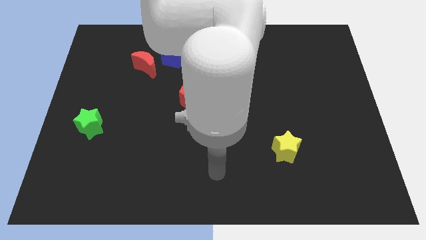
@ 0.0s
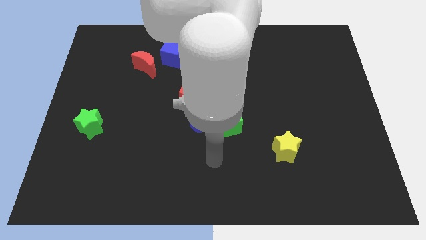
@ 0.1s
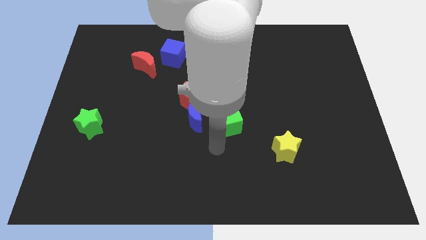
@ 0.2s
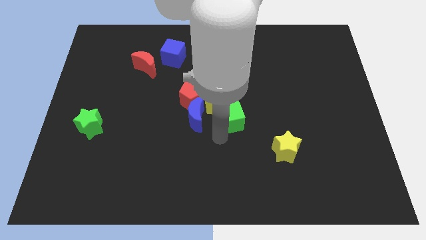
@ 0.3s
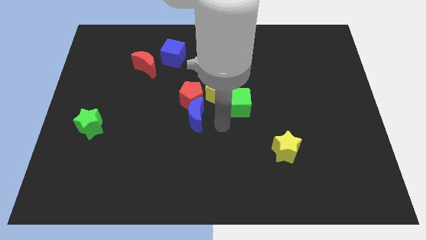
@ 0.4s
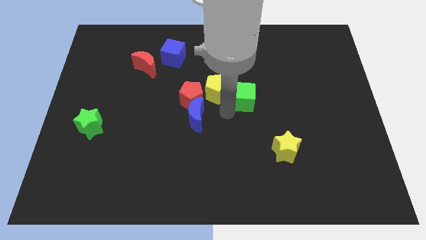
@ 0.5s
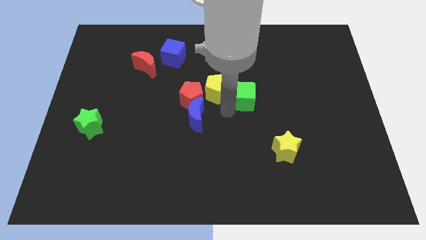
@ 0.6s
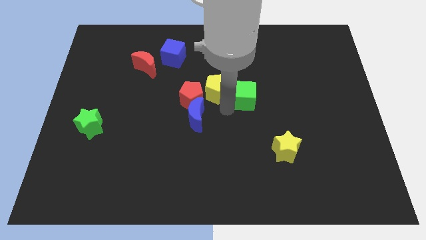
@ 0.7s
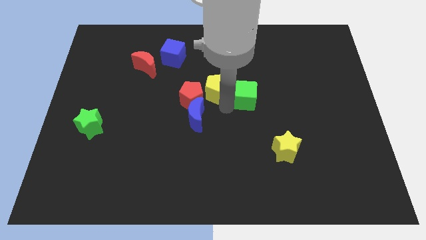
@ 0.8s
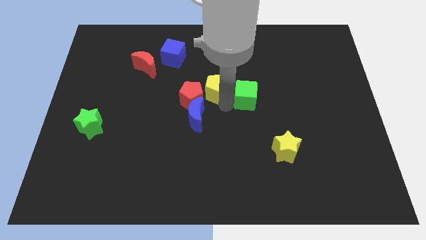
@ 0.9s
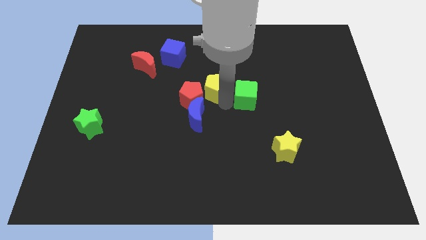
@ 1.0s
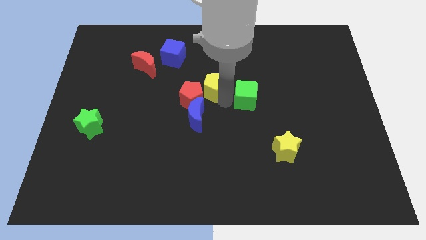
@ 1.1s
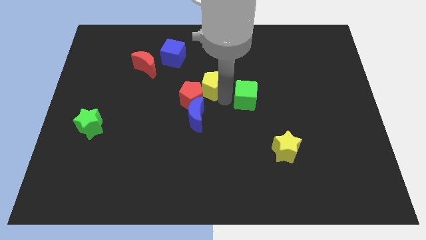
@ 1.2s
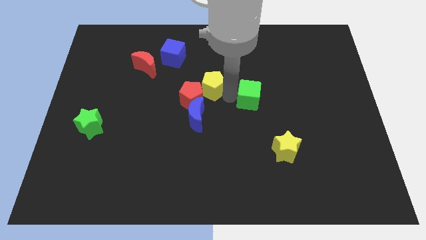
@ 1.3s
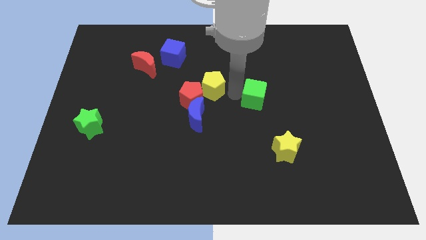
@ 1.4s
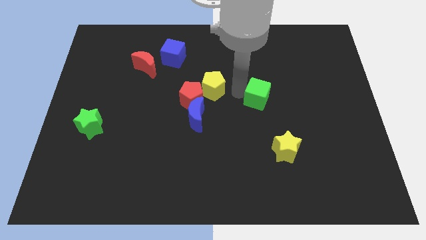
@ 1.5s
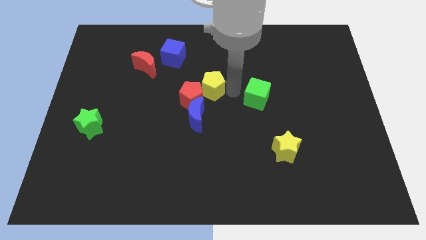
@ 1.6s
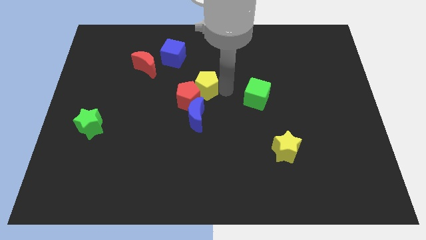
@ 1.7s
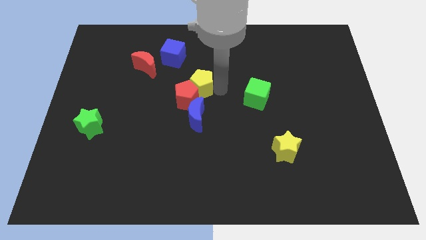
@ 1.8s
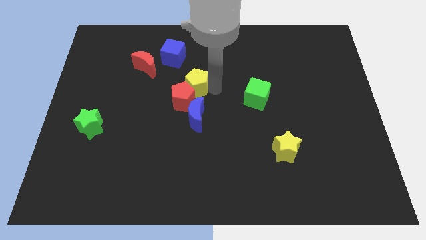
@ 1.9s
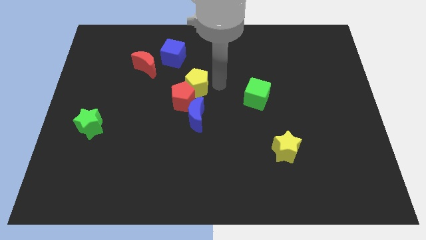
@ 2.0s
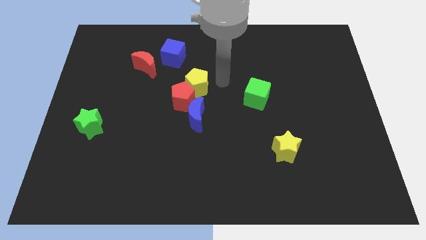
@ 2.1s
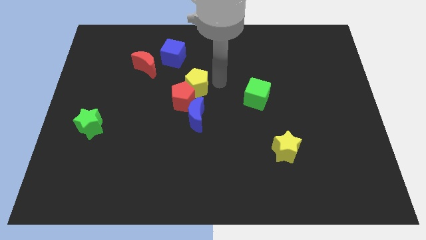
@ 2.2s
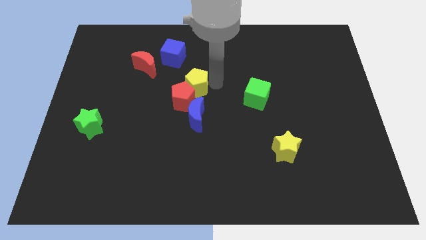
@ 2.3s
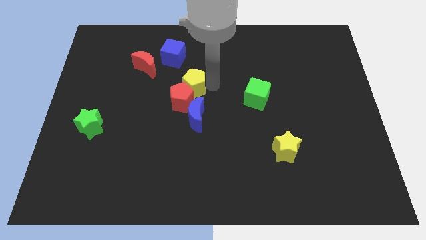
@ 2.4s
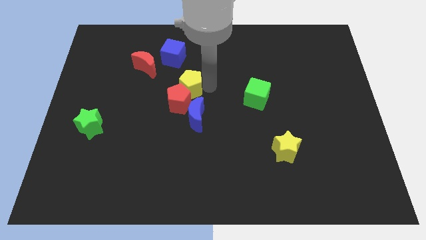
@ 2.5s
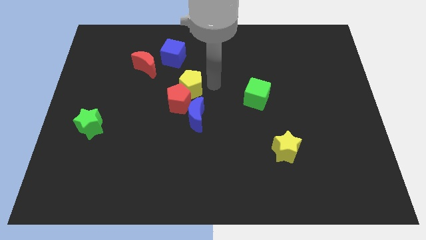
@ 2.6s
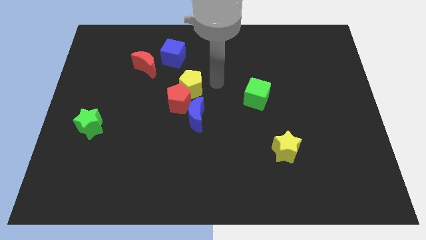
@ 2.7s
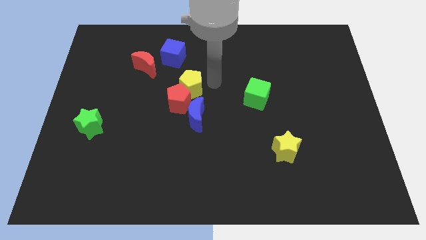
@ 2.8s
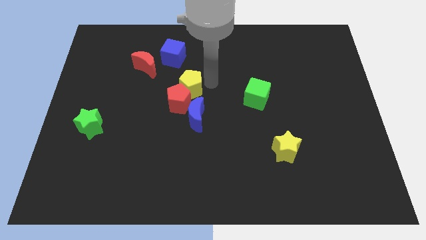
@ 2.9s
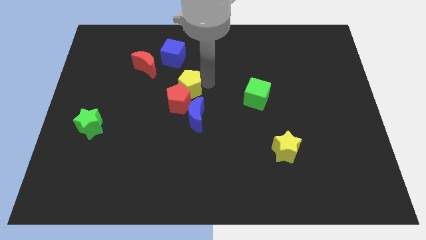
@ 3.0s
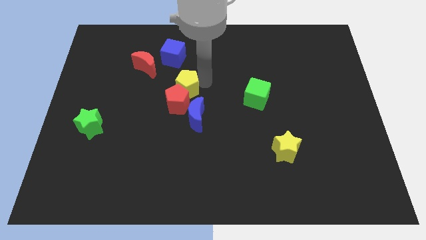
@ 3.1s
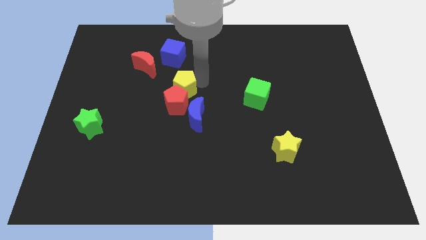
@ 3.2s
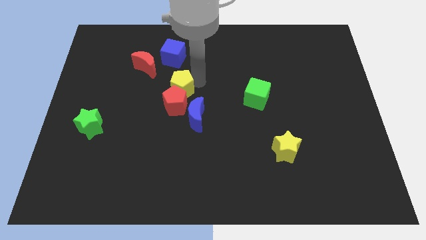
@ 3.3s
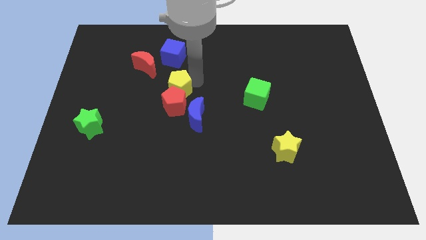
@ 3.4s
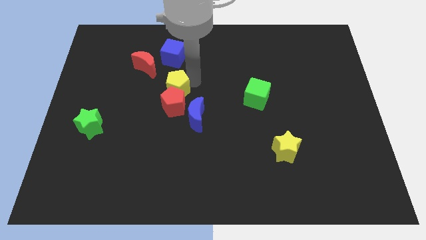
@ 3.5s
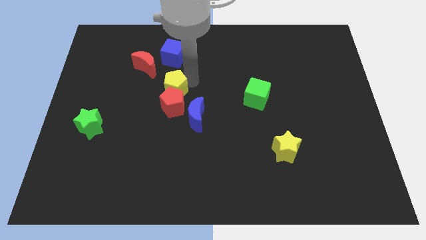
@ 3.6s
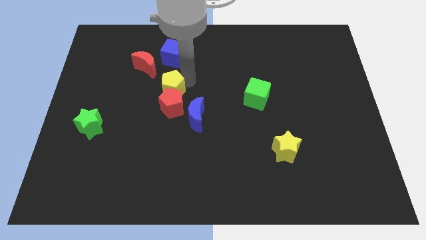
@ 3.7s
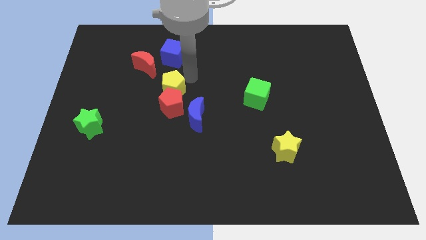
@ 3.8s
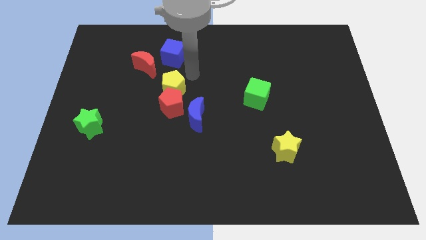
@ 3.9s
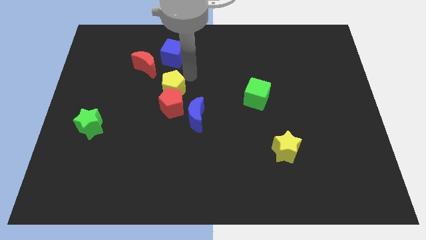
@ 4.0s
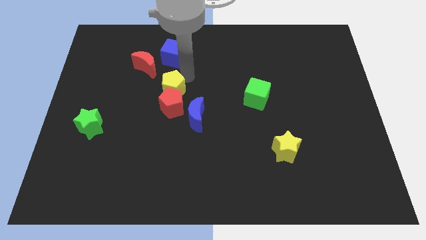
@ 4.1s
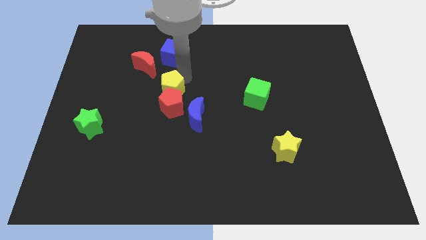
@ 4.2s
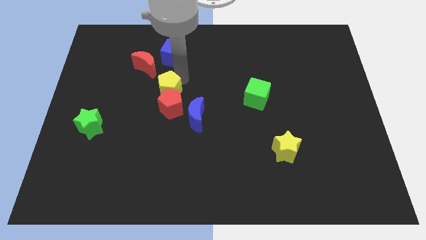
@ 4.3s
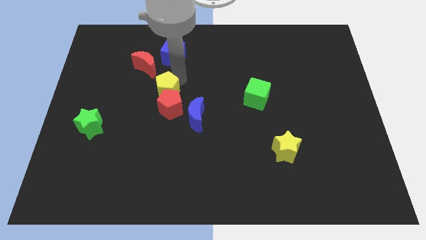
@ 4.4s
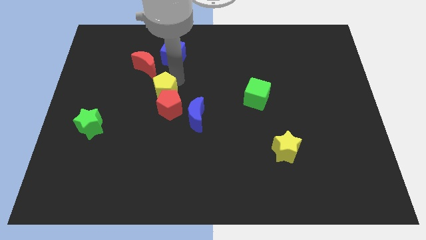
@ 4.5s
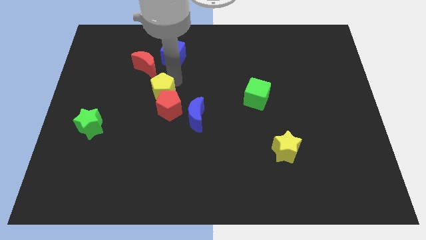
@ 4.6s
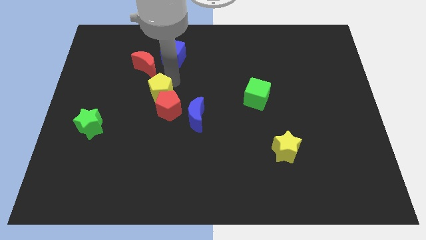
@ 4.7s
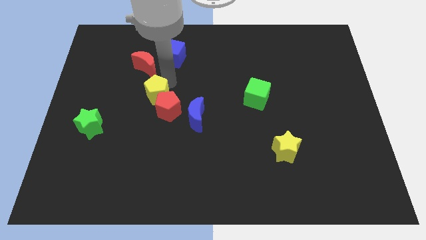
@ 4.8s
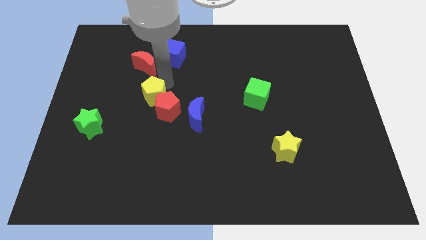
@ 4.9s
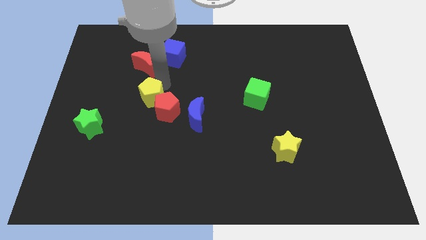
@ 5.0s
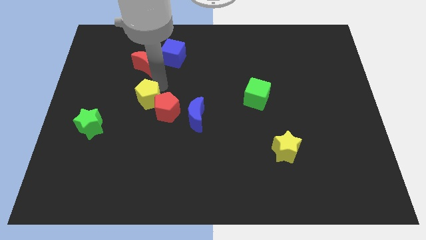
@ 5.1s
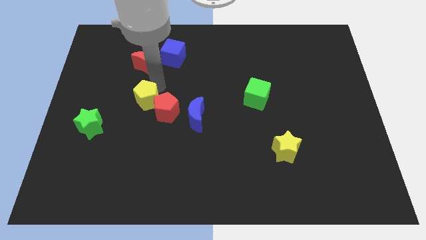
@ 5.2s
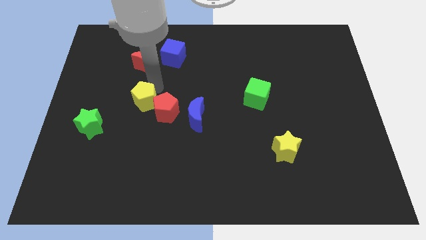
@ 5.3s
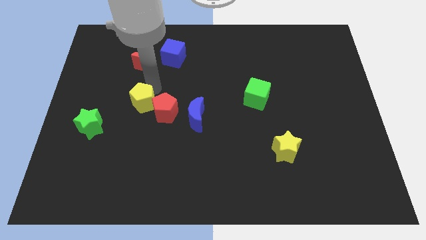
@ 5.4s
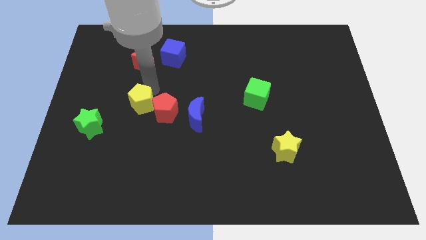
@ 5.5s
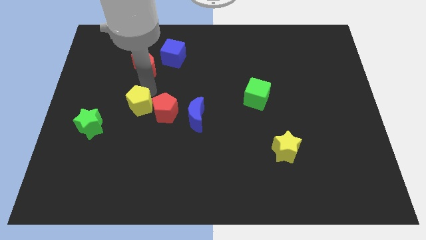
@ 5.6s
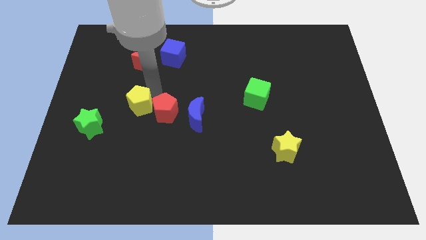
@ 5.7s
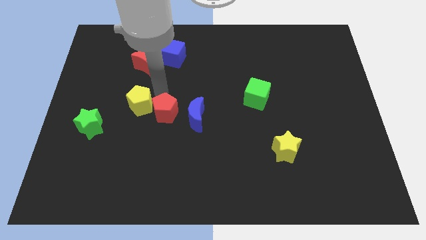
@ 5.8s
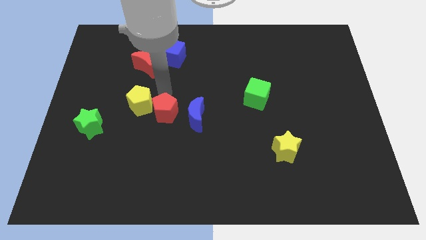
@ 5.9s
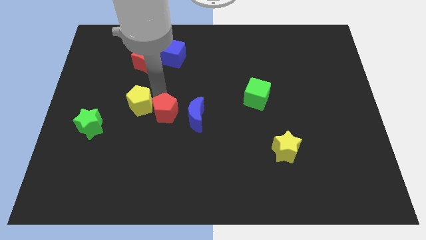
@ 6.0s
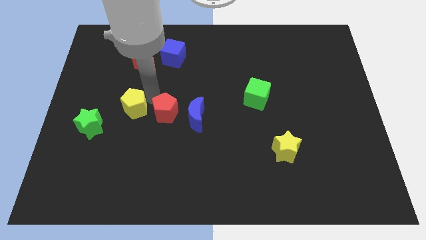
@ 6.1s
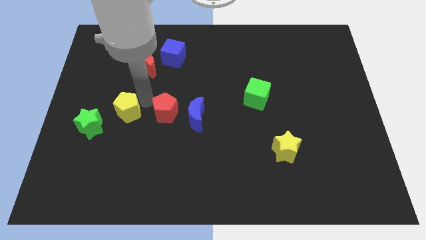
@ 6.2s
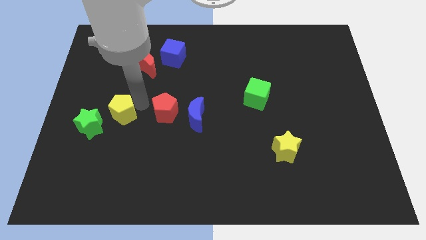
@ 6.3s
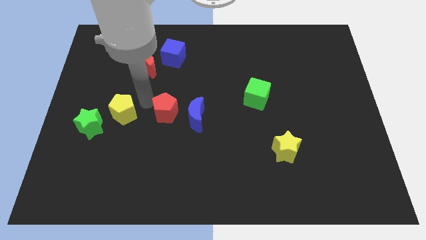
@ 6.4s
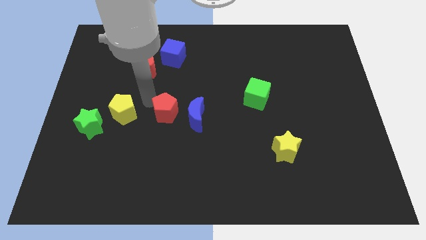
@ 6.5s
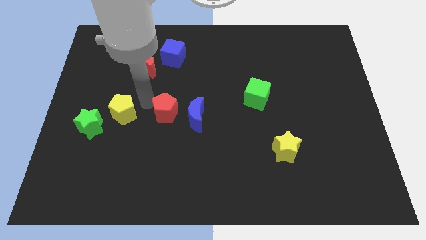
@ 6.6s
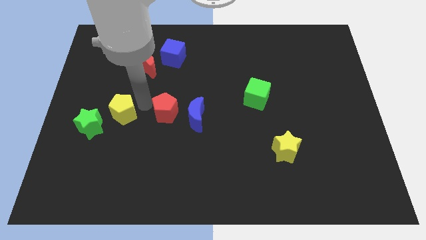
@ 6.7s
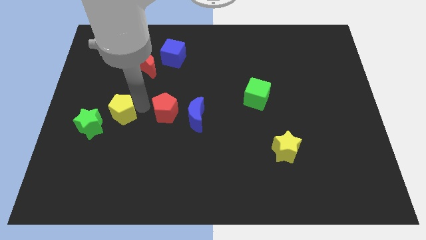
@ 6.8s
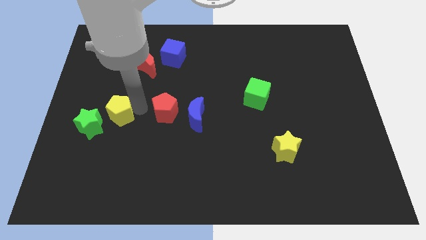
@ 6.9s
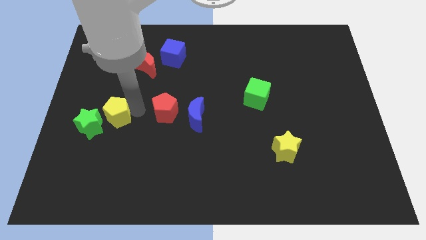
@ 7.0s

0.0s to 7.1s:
slide the yellow pentagon towards the green star

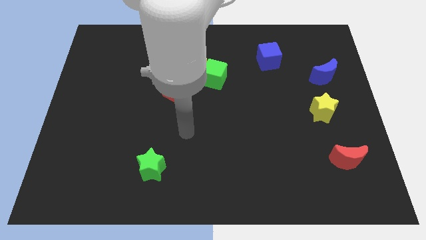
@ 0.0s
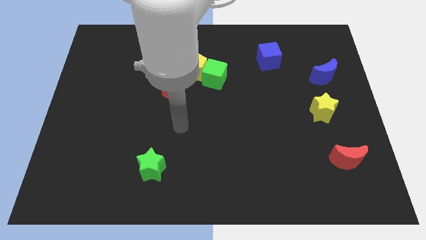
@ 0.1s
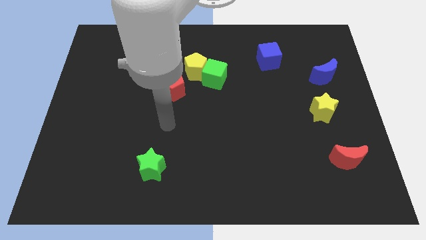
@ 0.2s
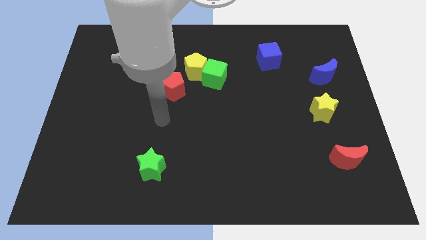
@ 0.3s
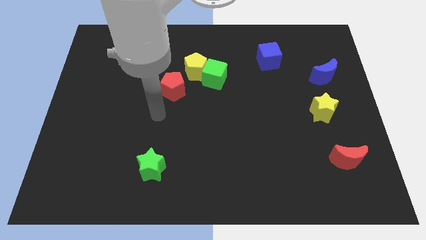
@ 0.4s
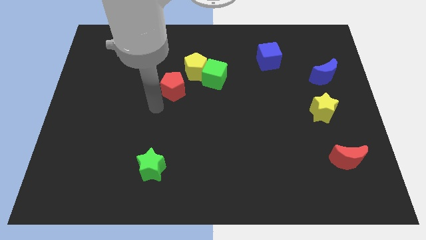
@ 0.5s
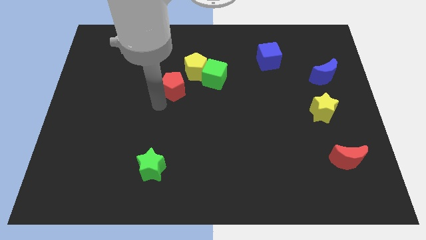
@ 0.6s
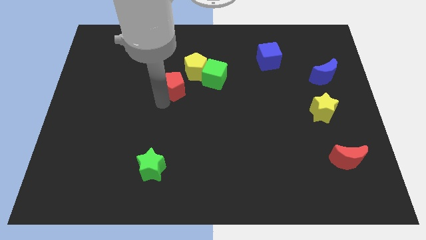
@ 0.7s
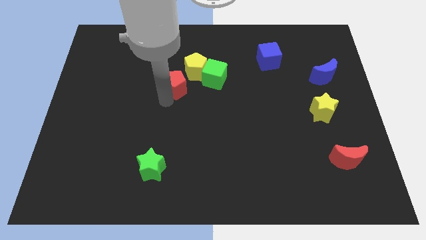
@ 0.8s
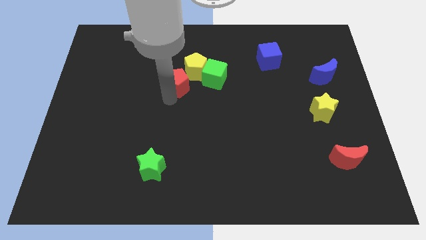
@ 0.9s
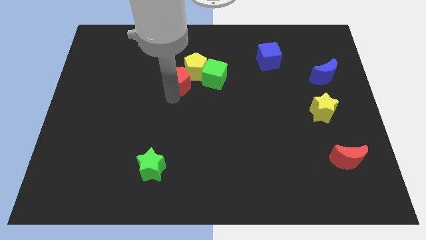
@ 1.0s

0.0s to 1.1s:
slide the red pentagon next to the yellow pentagon
